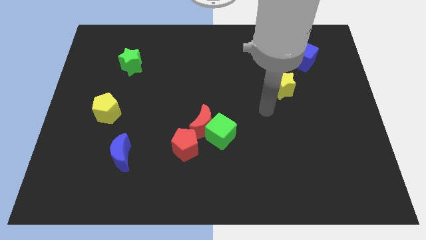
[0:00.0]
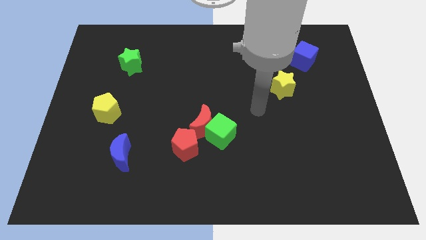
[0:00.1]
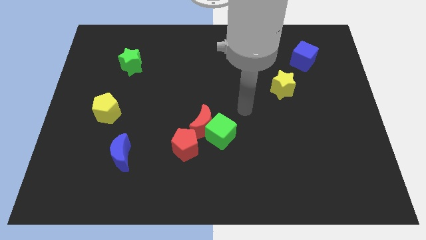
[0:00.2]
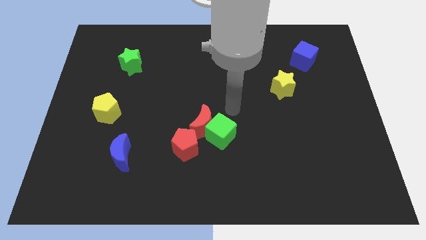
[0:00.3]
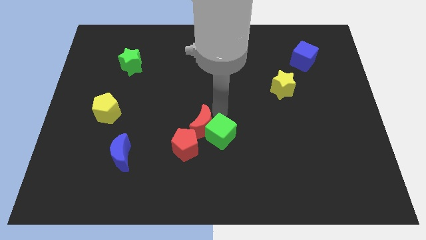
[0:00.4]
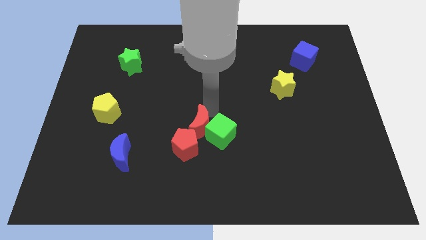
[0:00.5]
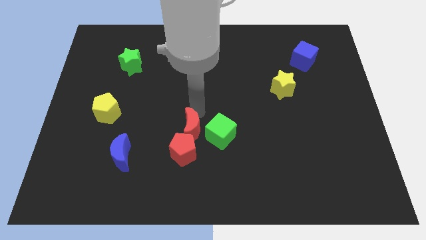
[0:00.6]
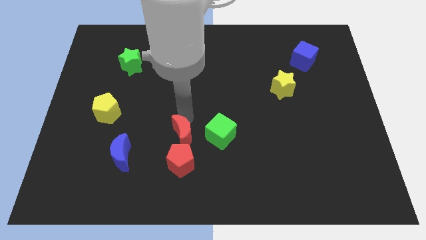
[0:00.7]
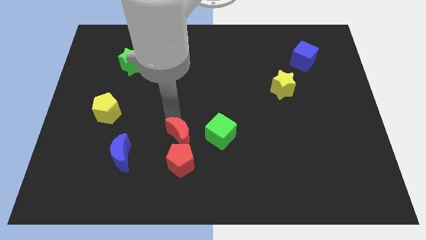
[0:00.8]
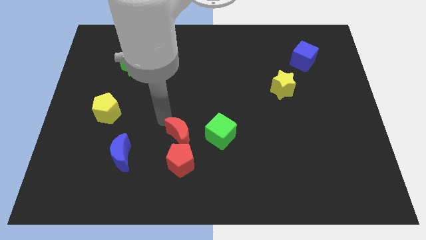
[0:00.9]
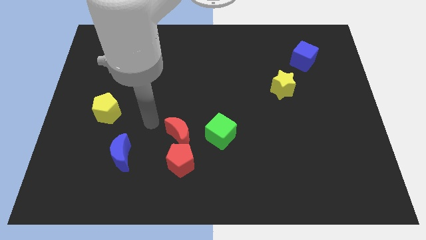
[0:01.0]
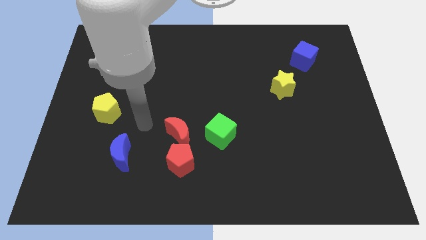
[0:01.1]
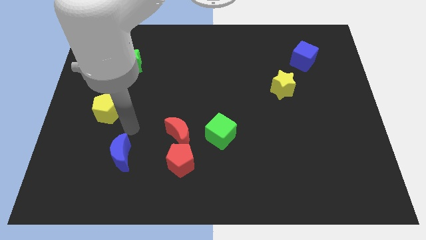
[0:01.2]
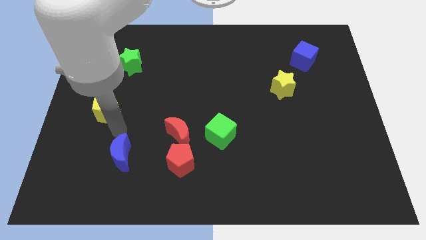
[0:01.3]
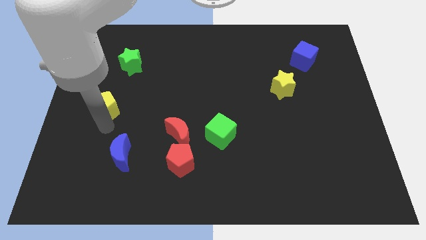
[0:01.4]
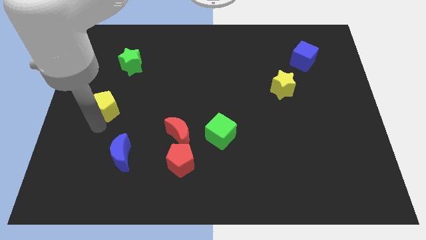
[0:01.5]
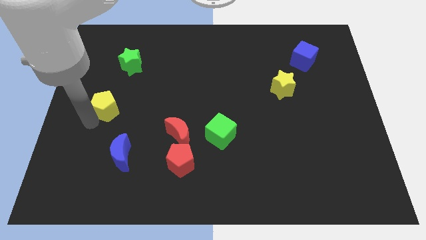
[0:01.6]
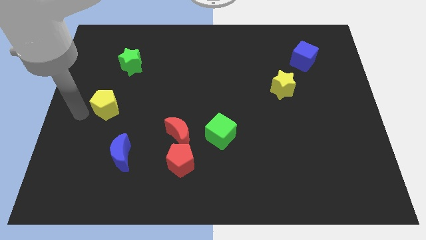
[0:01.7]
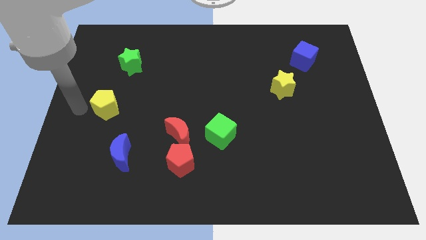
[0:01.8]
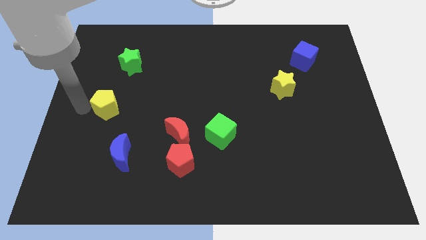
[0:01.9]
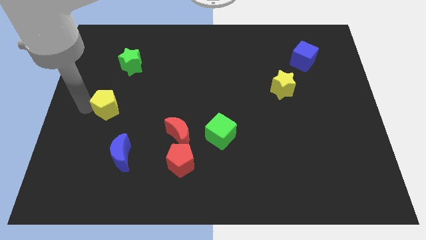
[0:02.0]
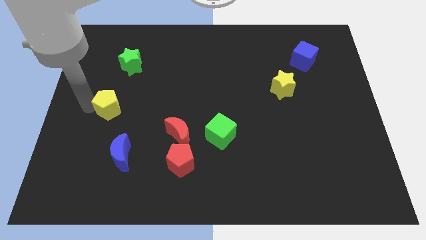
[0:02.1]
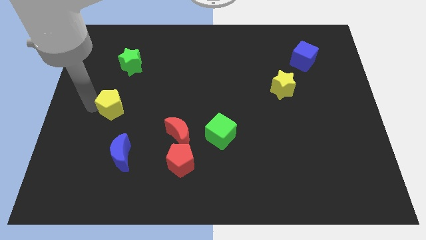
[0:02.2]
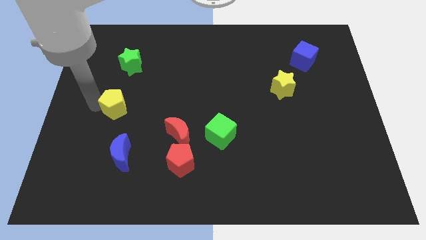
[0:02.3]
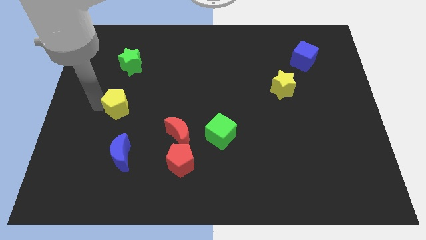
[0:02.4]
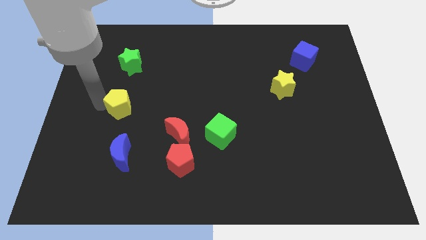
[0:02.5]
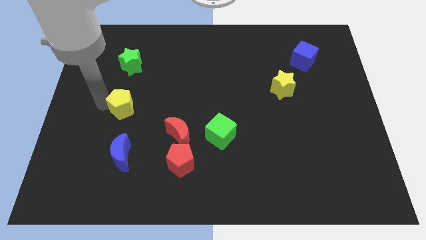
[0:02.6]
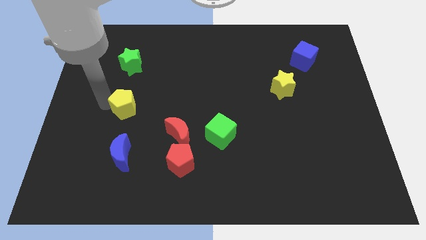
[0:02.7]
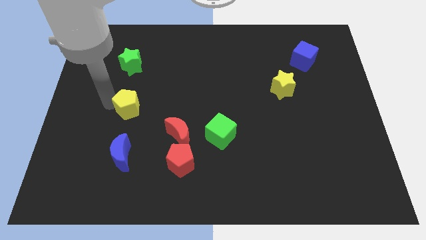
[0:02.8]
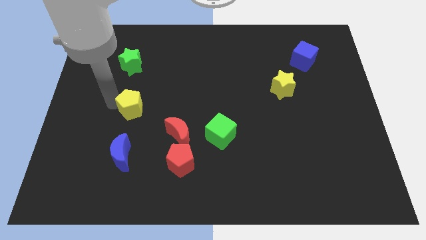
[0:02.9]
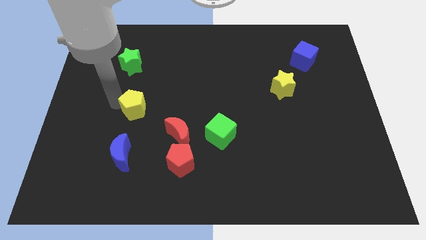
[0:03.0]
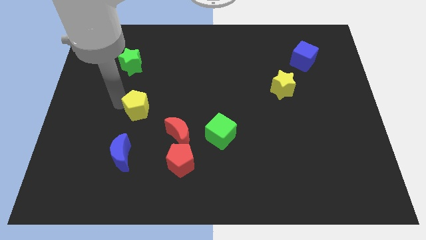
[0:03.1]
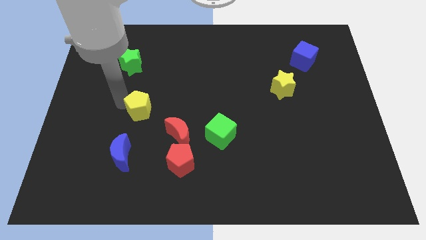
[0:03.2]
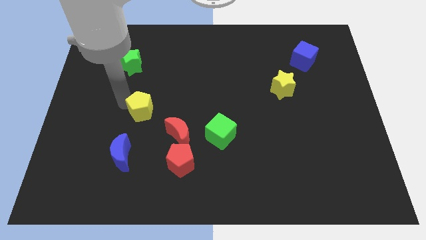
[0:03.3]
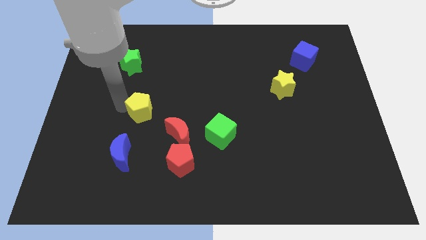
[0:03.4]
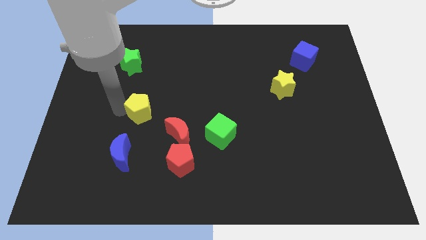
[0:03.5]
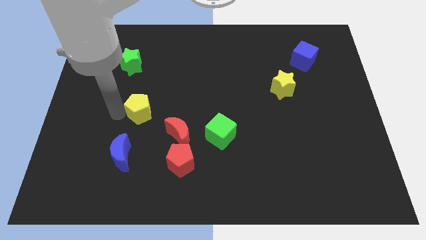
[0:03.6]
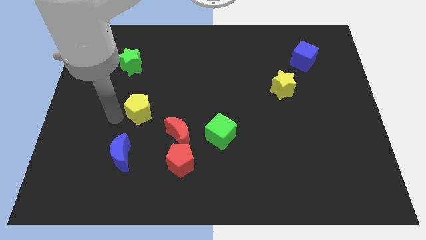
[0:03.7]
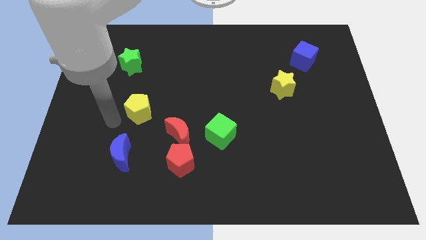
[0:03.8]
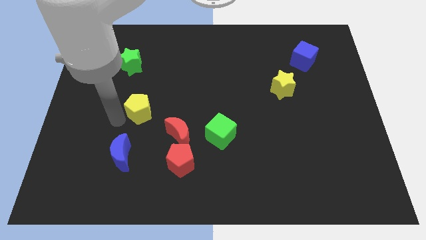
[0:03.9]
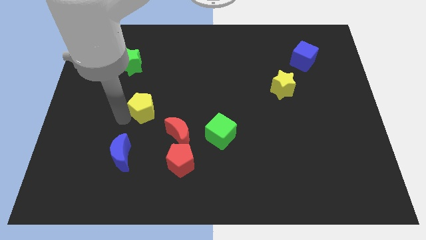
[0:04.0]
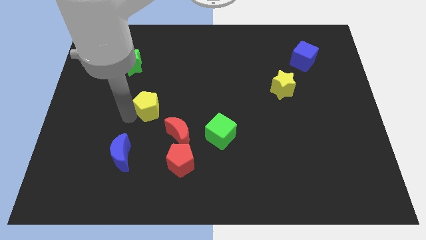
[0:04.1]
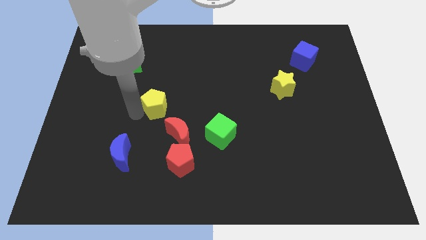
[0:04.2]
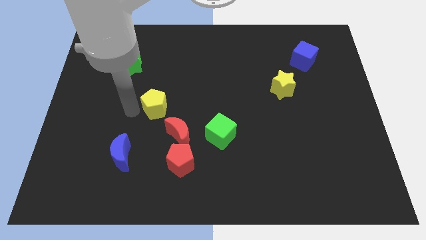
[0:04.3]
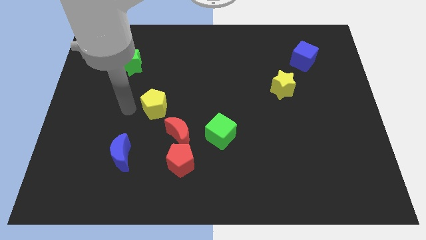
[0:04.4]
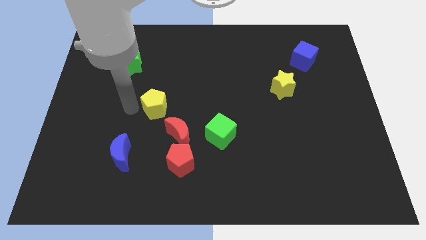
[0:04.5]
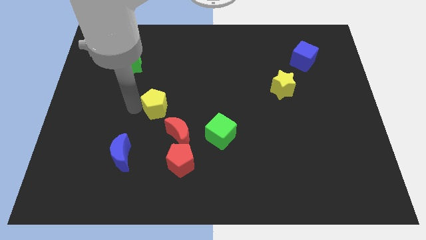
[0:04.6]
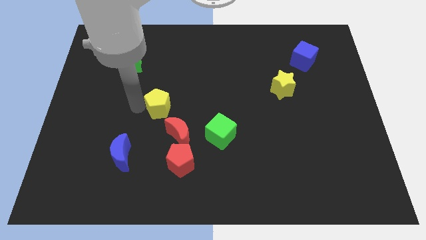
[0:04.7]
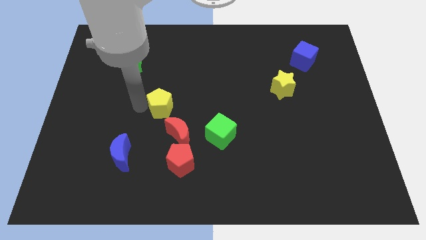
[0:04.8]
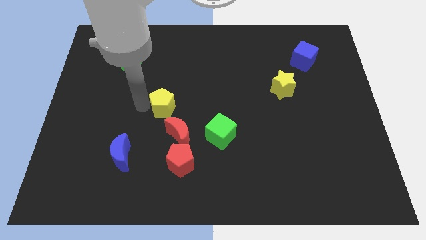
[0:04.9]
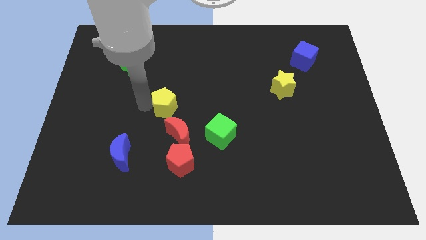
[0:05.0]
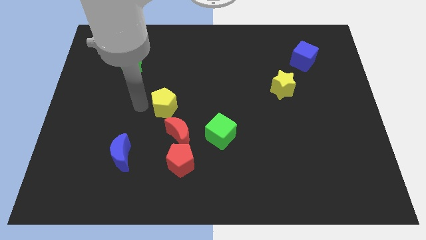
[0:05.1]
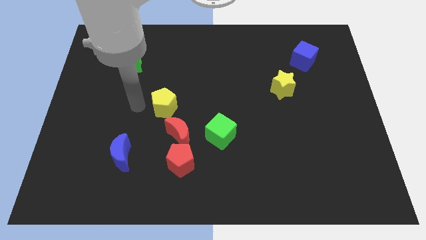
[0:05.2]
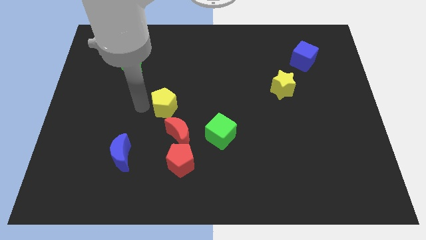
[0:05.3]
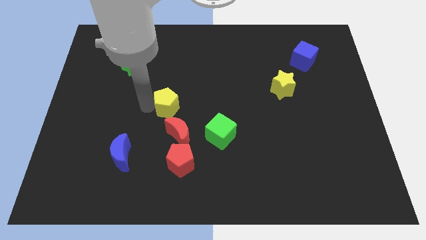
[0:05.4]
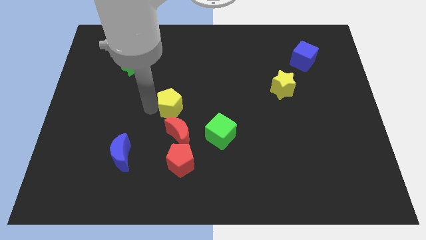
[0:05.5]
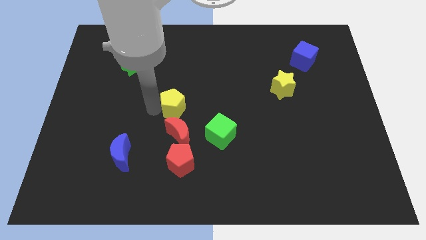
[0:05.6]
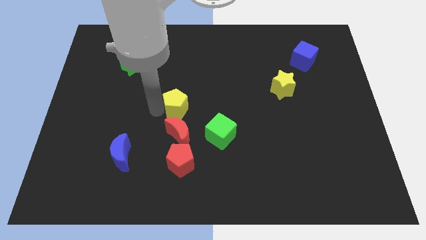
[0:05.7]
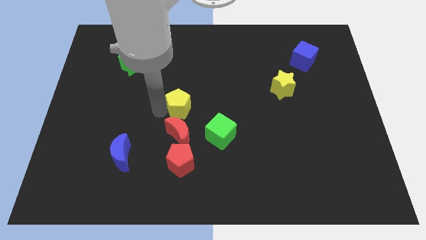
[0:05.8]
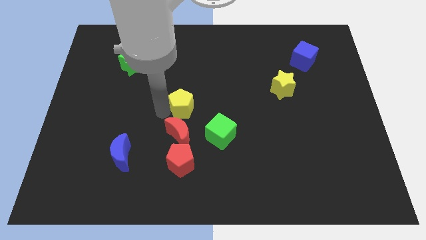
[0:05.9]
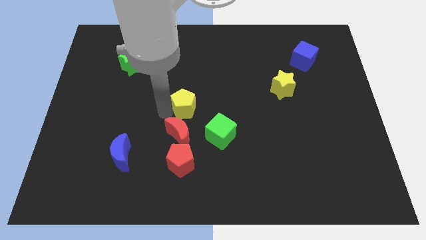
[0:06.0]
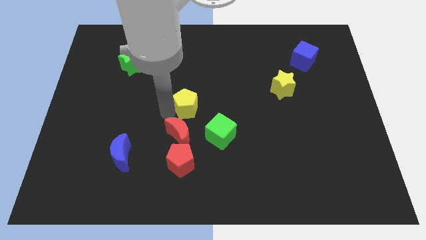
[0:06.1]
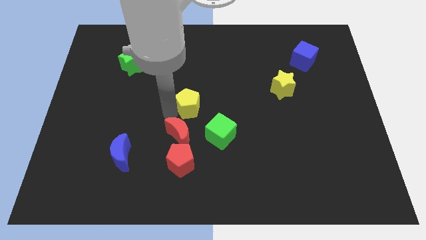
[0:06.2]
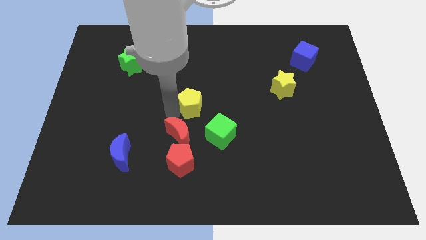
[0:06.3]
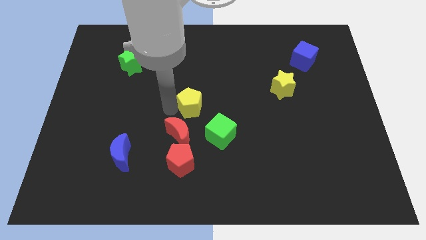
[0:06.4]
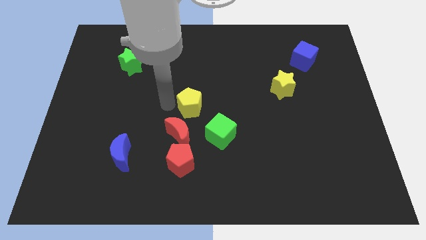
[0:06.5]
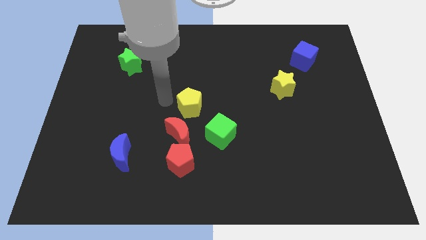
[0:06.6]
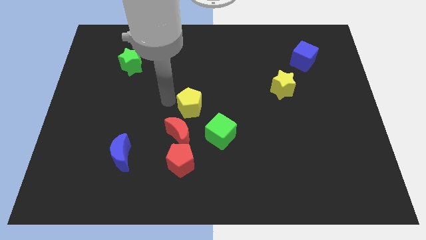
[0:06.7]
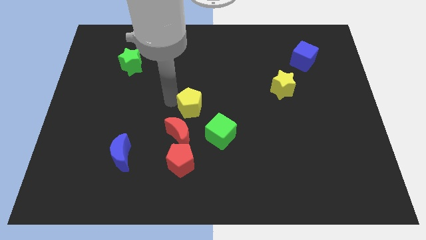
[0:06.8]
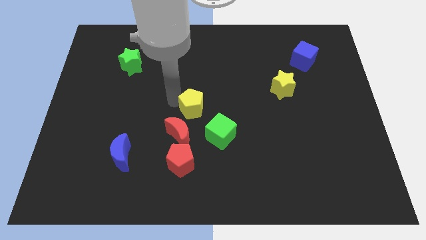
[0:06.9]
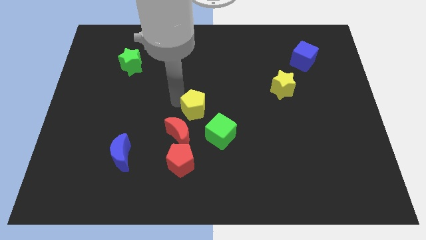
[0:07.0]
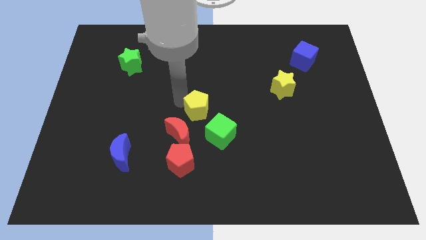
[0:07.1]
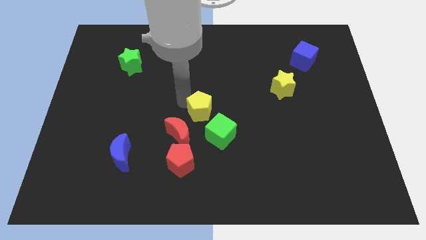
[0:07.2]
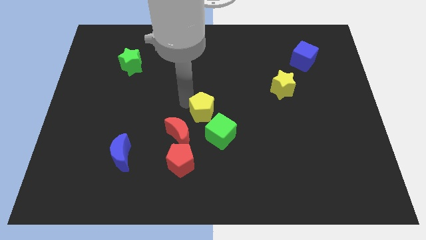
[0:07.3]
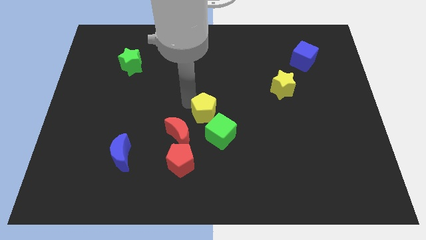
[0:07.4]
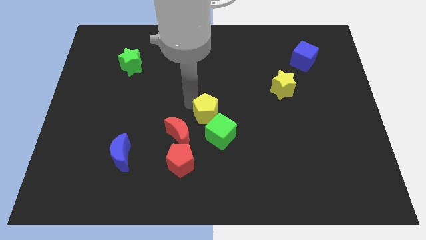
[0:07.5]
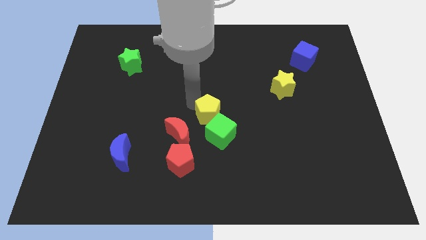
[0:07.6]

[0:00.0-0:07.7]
push the yellow pentagon next to the green cube
